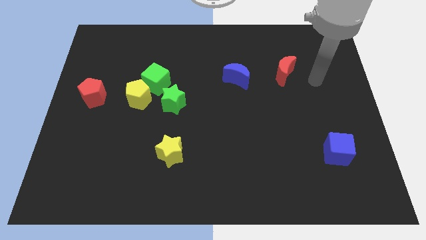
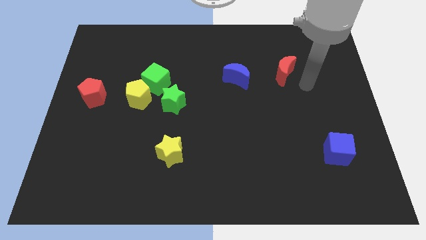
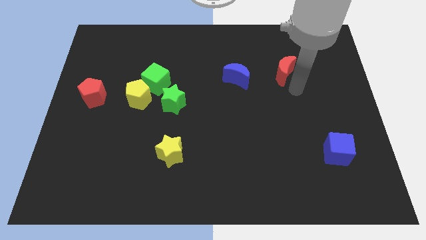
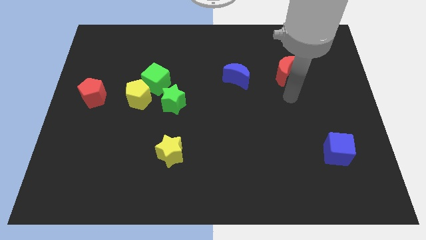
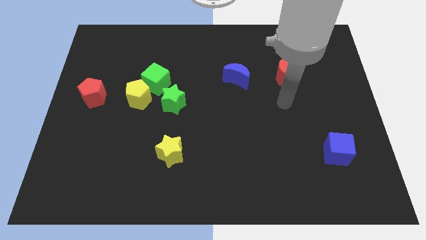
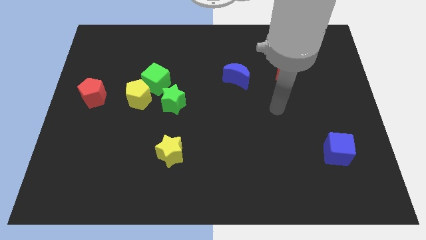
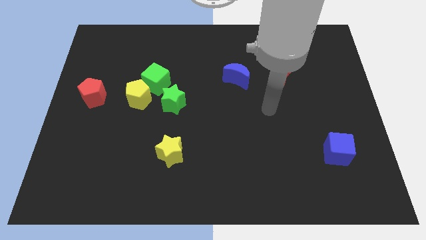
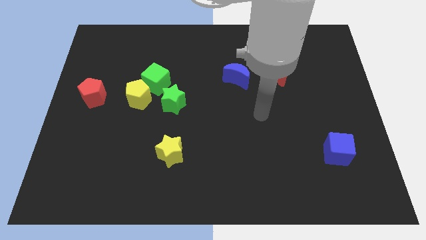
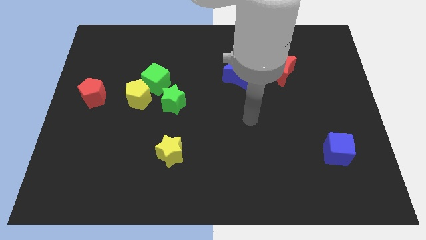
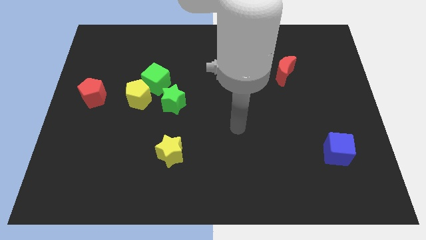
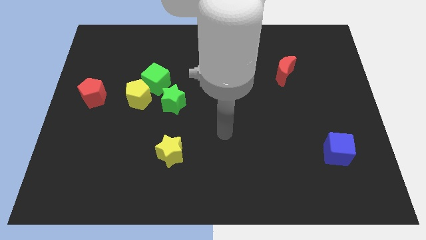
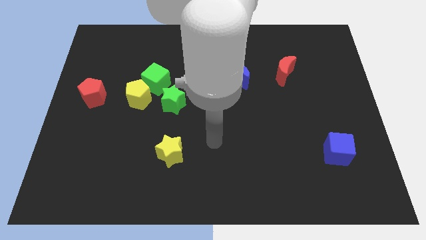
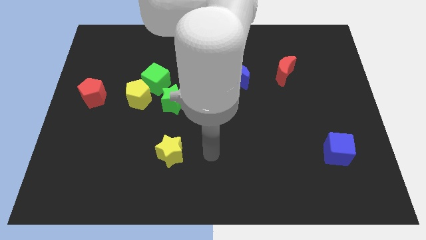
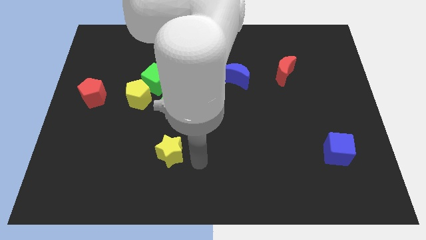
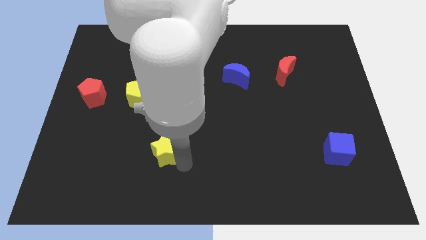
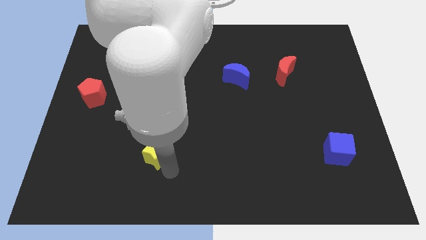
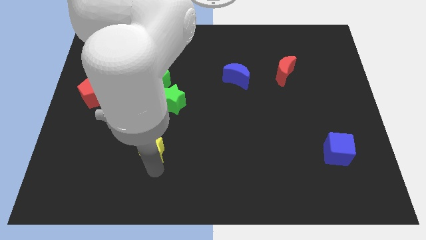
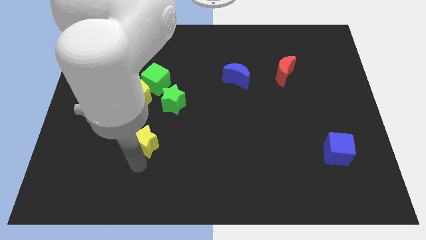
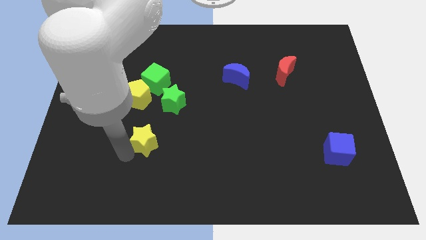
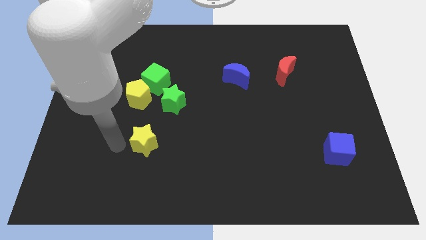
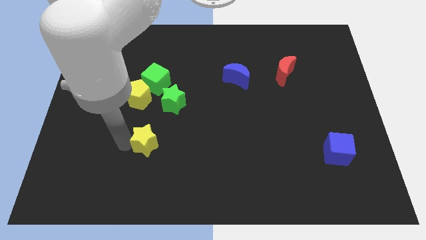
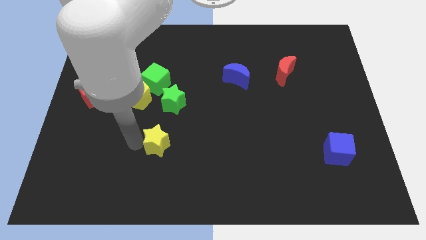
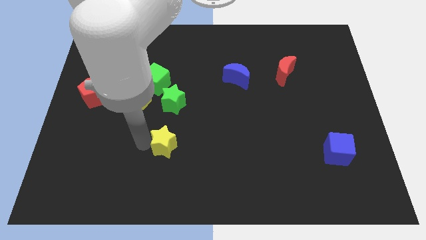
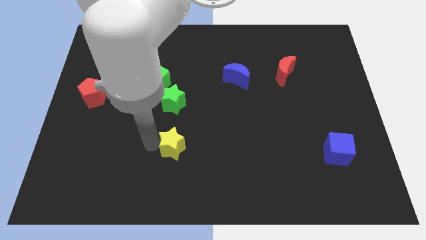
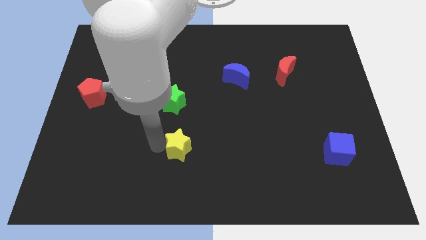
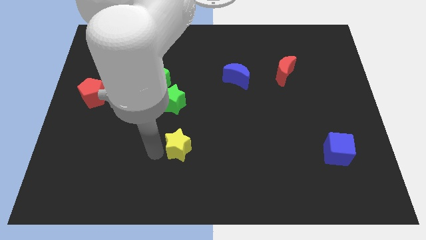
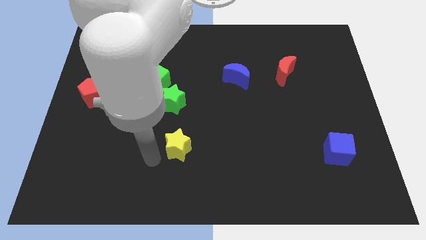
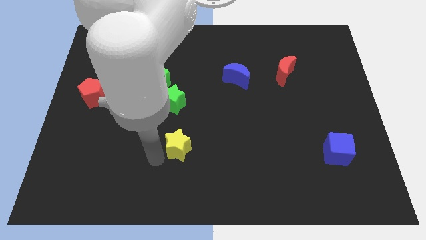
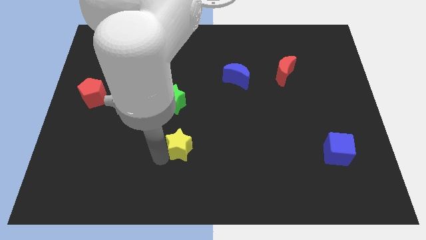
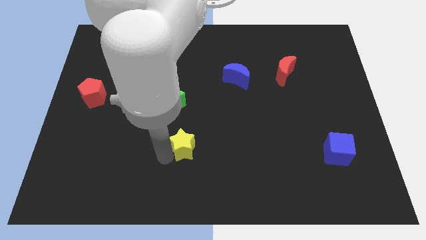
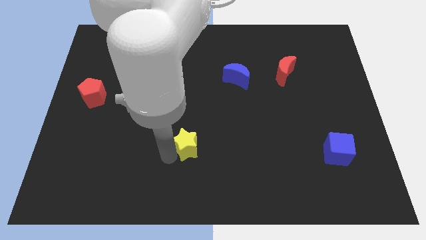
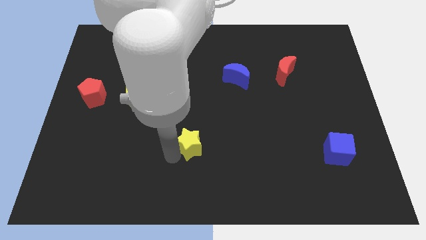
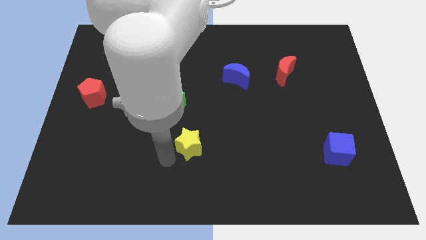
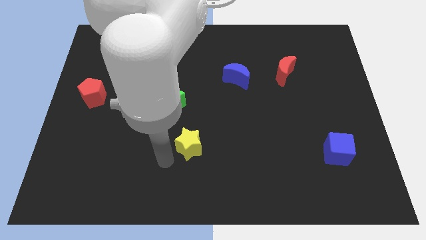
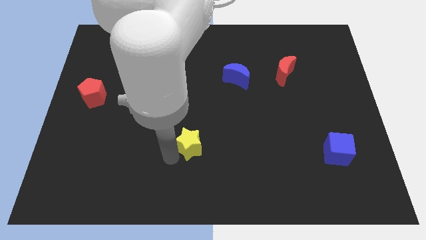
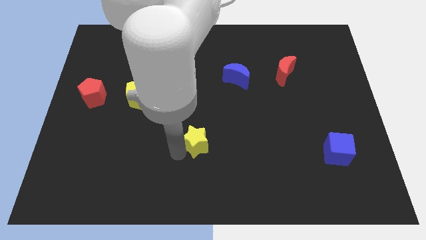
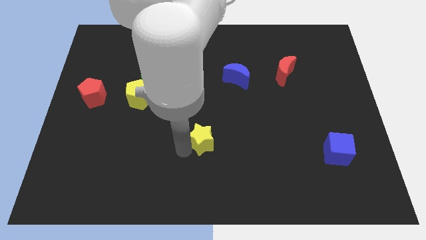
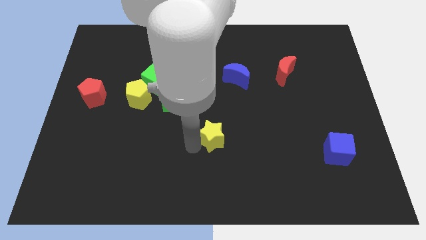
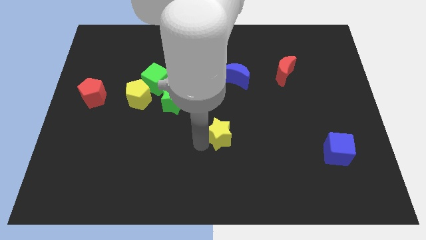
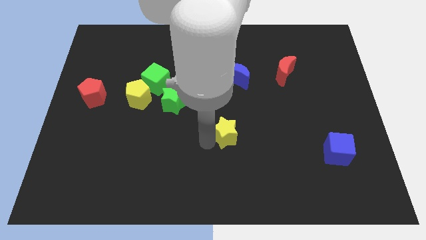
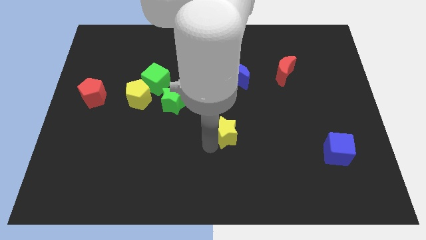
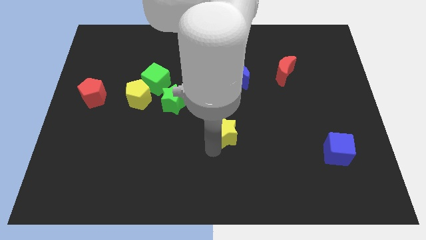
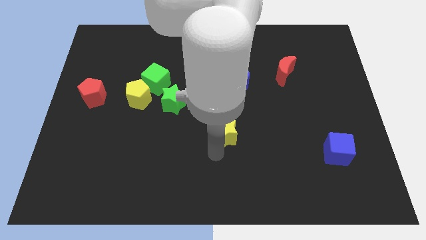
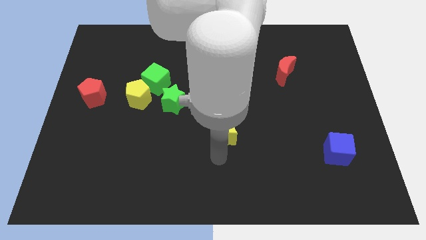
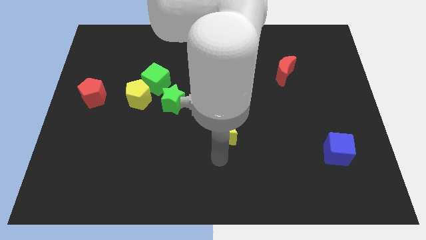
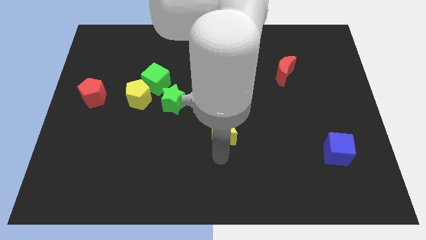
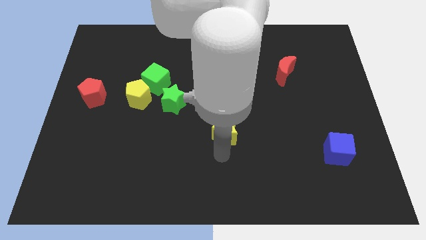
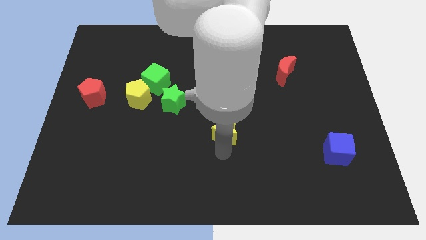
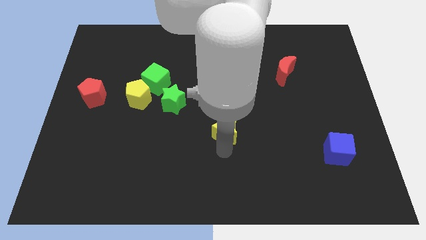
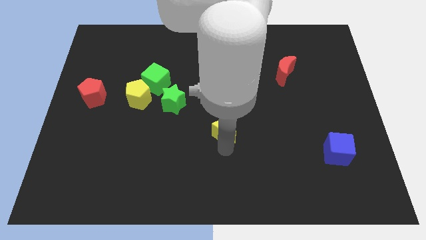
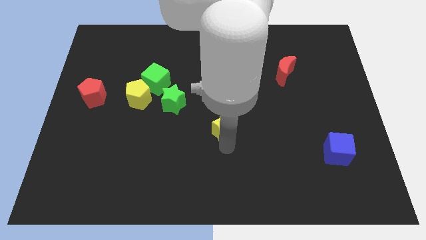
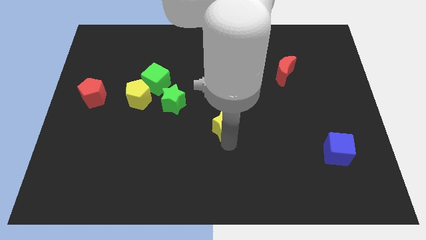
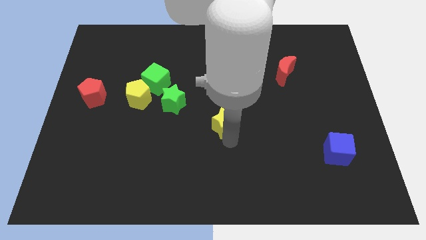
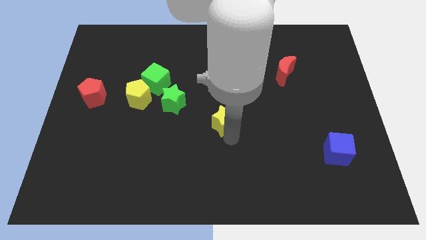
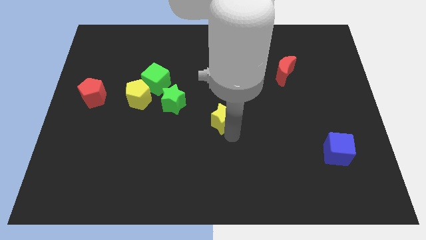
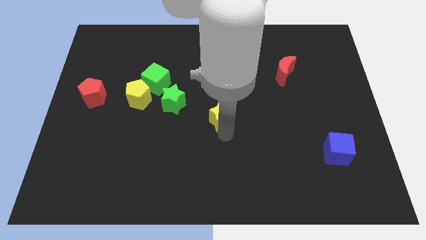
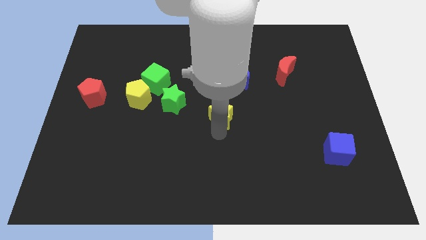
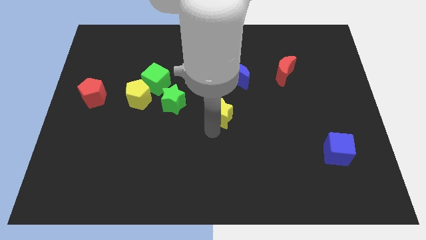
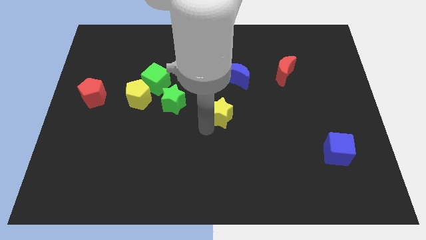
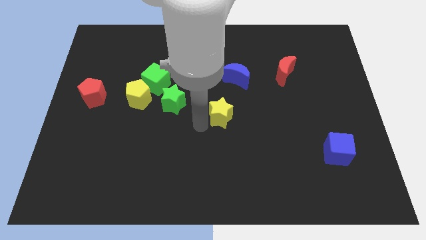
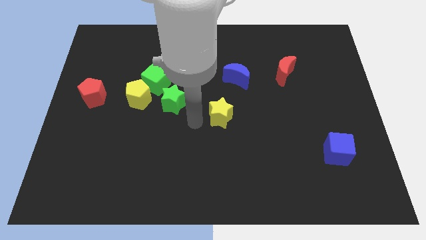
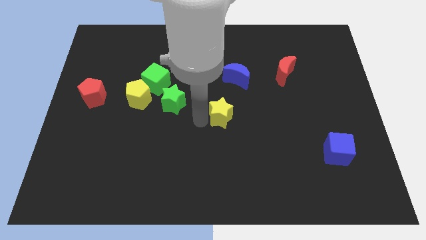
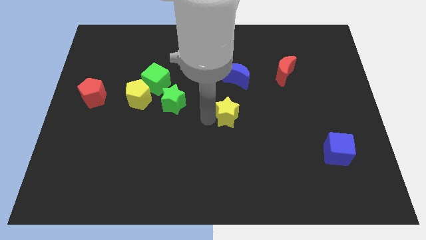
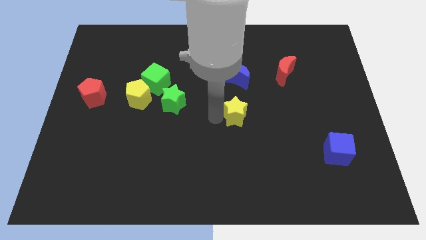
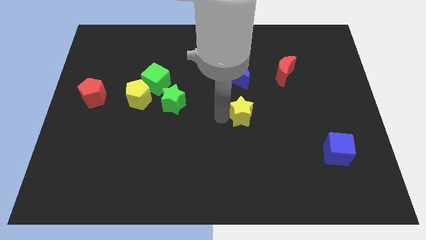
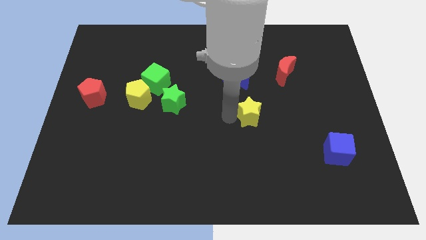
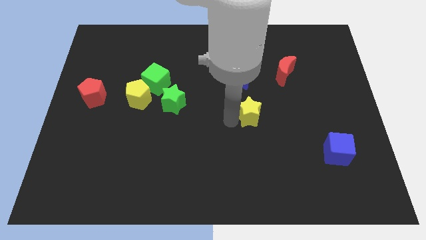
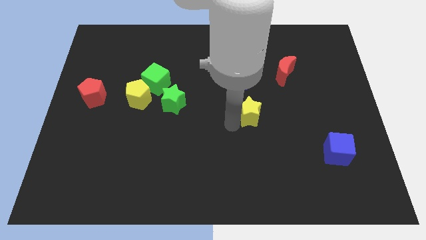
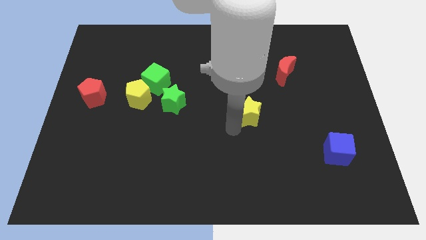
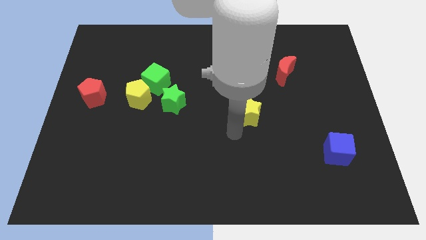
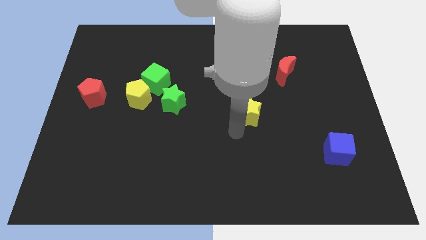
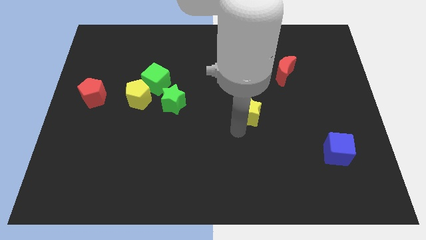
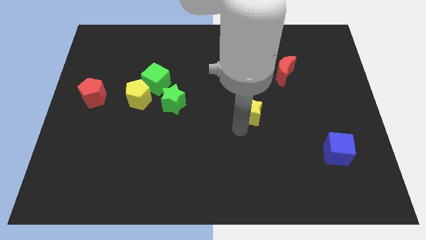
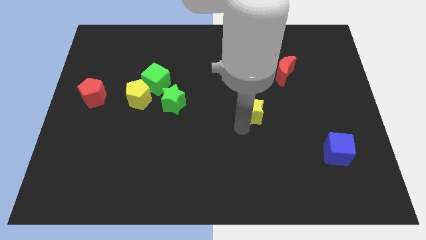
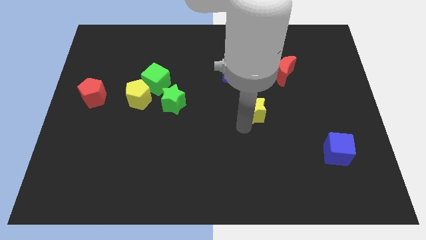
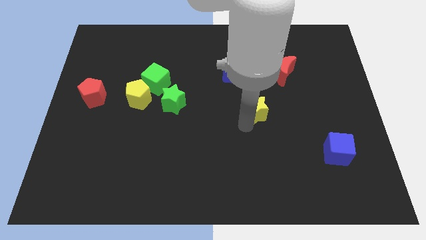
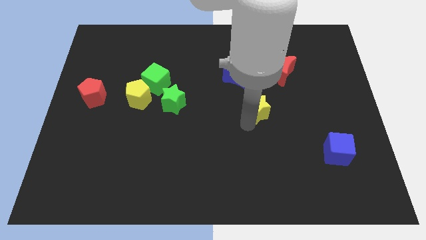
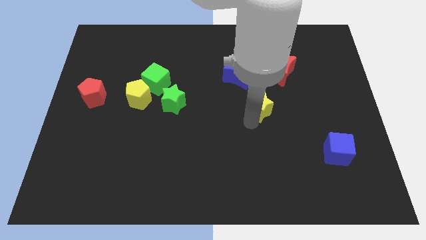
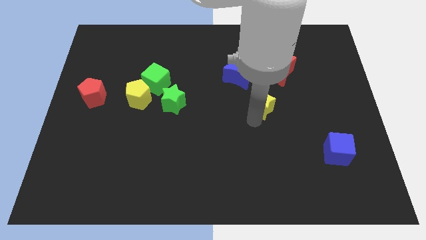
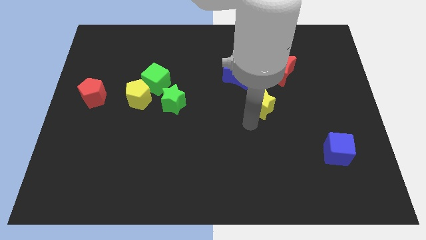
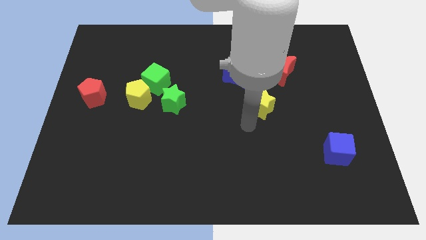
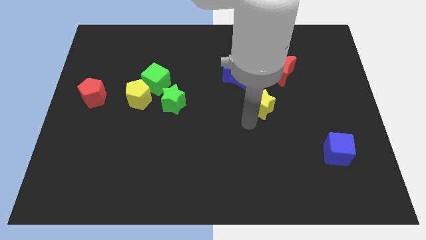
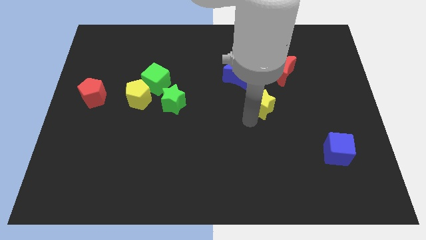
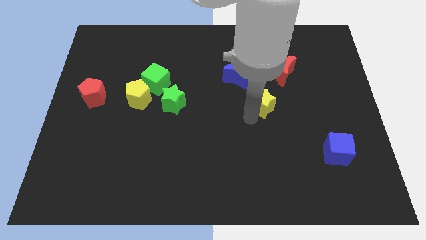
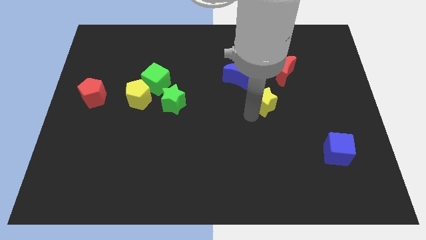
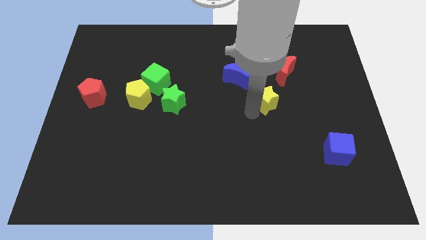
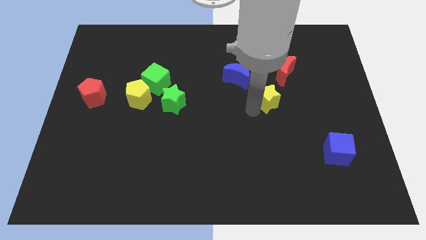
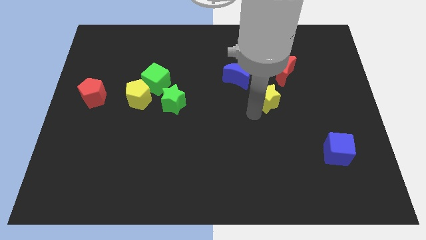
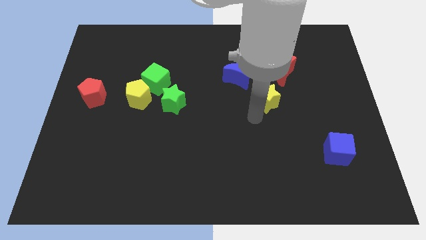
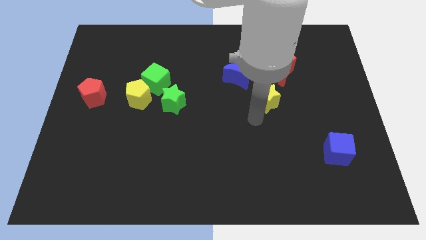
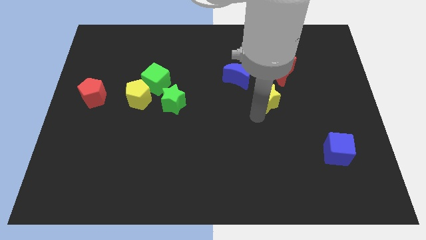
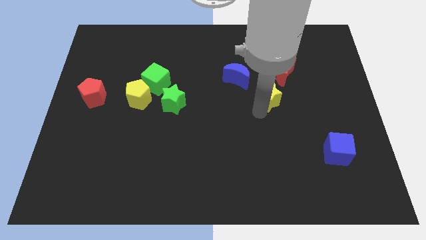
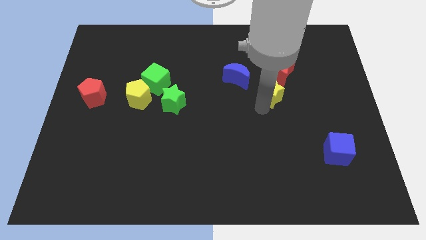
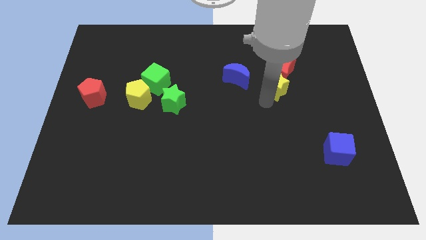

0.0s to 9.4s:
put the yellow star to the red moon
